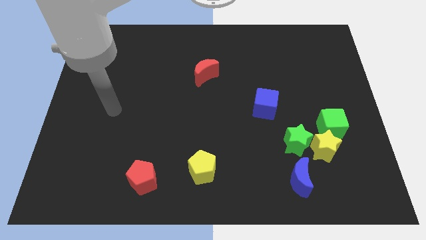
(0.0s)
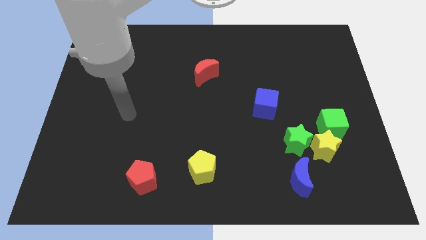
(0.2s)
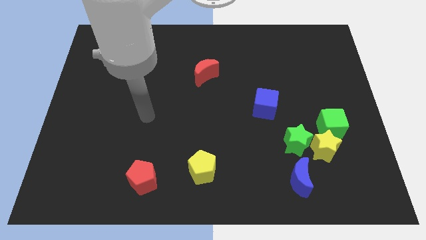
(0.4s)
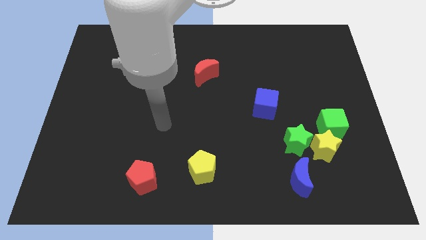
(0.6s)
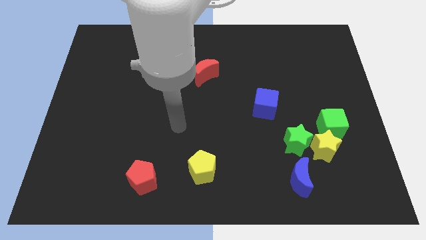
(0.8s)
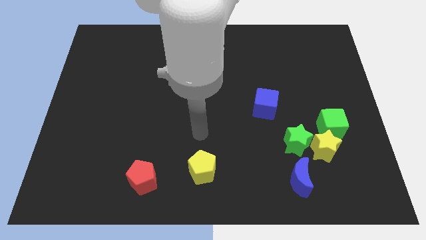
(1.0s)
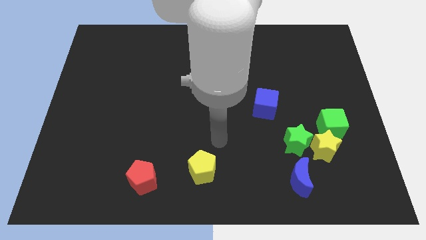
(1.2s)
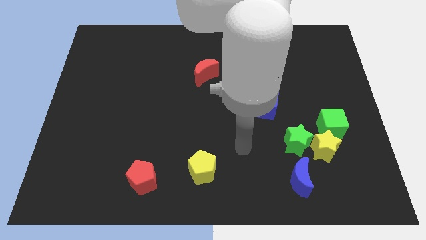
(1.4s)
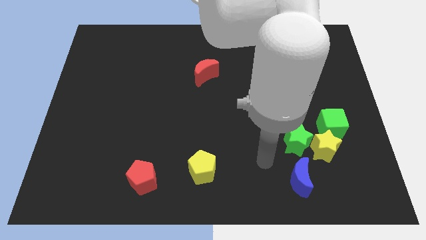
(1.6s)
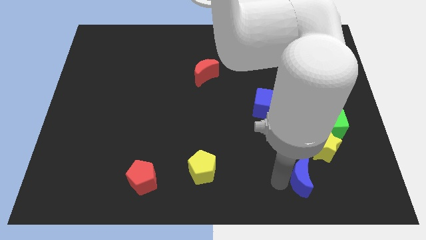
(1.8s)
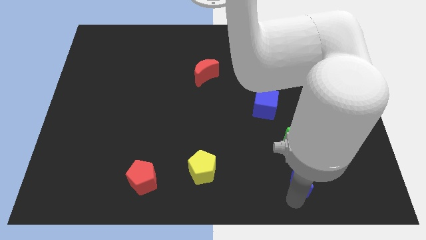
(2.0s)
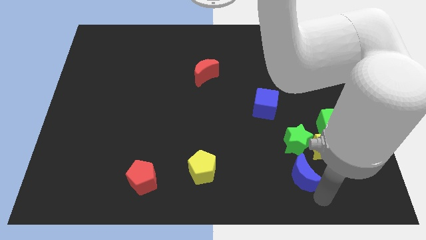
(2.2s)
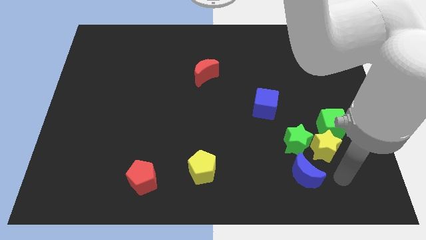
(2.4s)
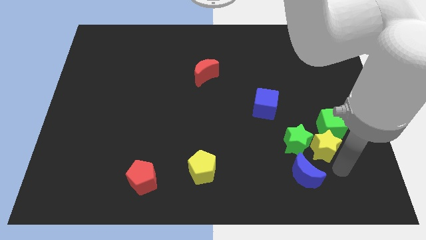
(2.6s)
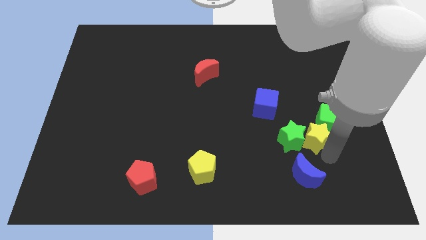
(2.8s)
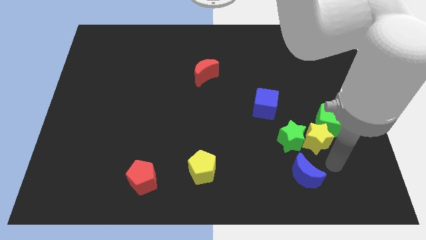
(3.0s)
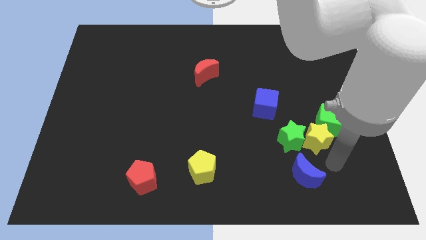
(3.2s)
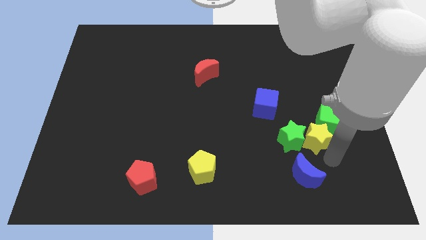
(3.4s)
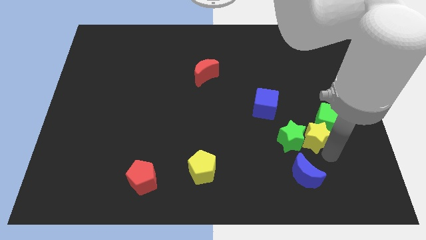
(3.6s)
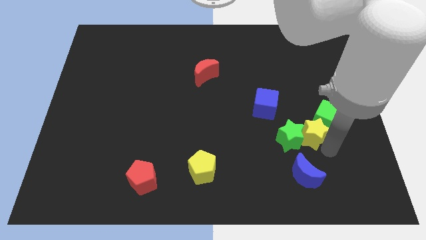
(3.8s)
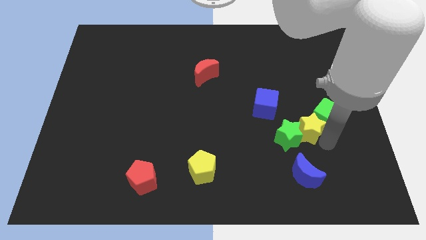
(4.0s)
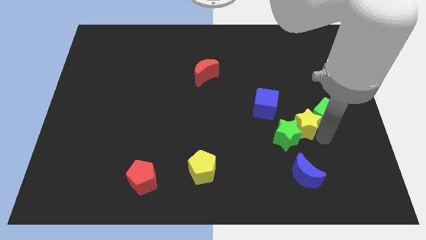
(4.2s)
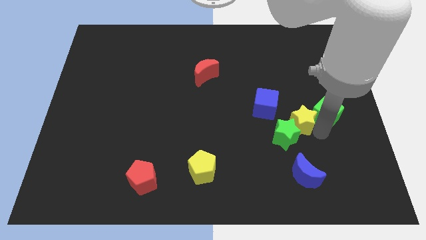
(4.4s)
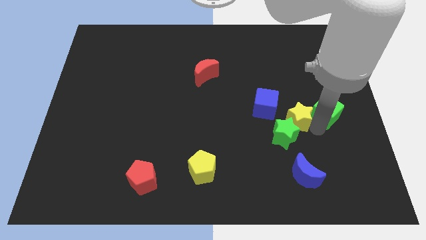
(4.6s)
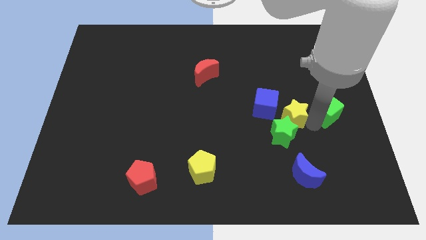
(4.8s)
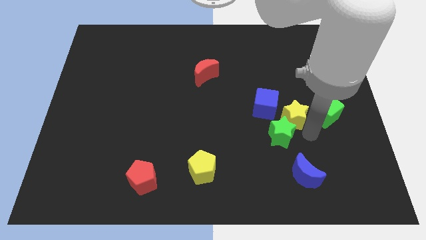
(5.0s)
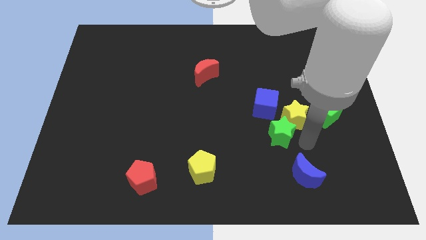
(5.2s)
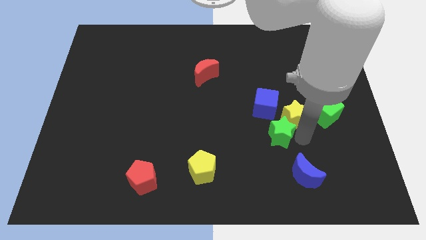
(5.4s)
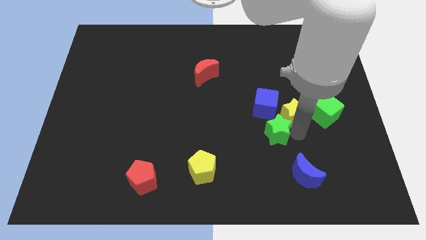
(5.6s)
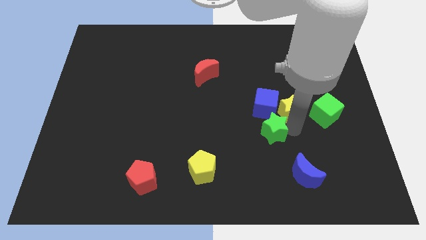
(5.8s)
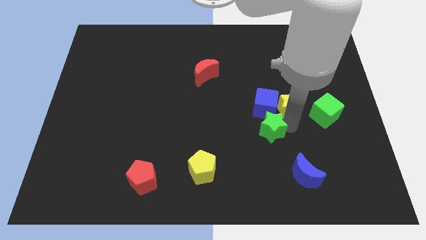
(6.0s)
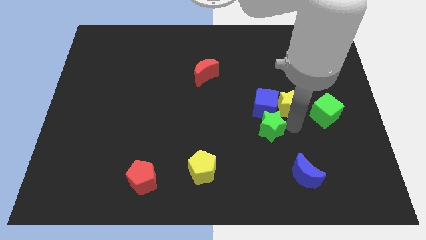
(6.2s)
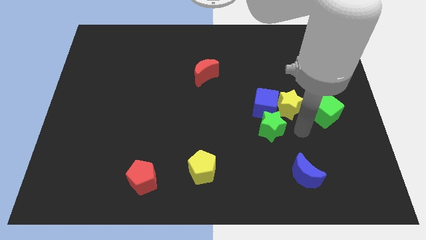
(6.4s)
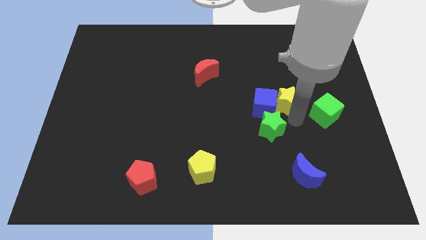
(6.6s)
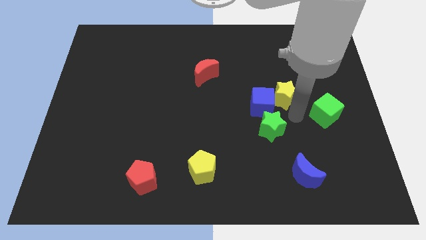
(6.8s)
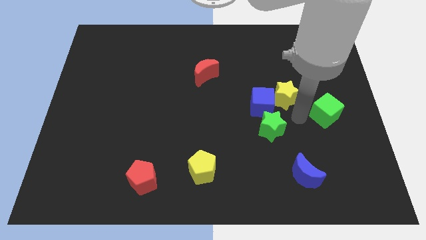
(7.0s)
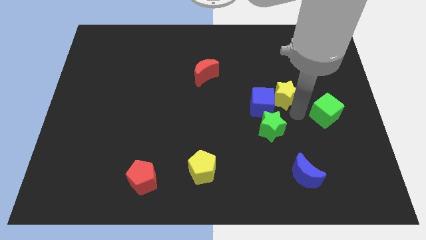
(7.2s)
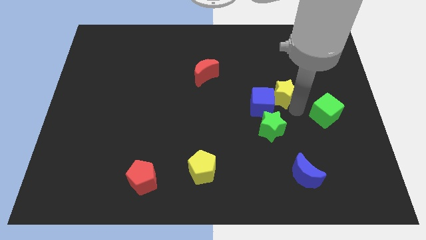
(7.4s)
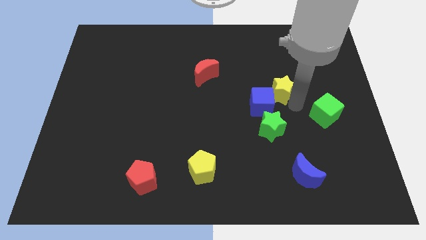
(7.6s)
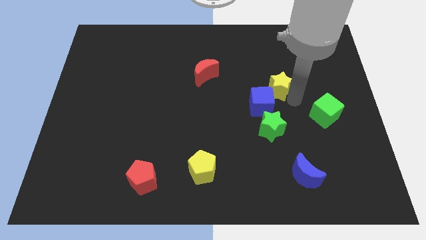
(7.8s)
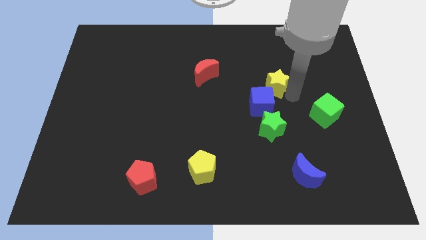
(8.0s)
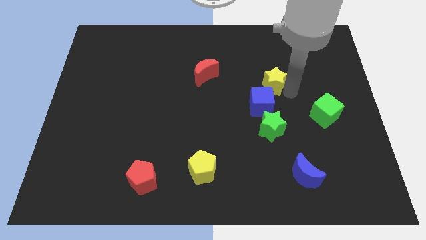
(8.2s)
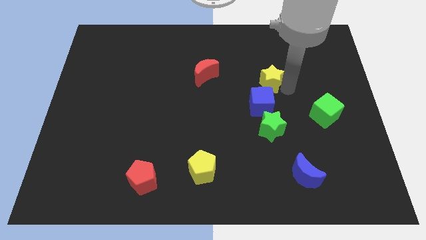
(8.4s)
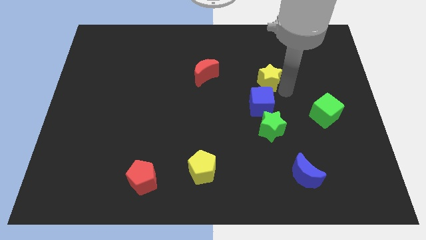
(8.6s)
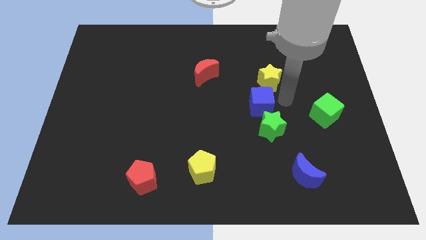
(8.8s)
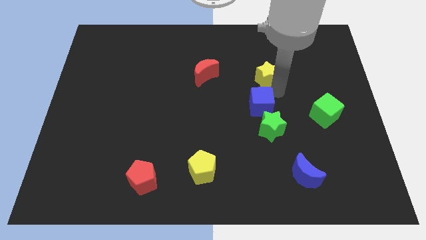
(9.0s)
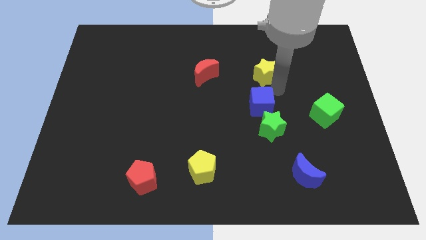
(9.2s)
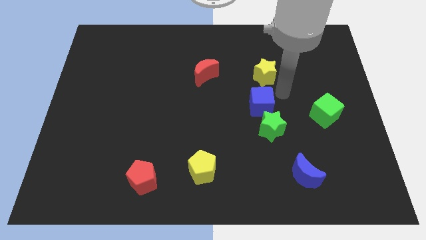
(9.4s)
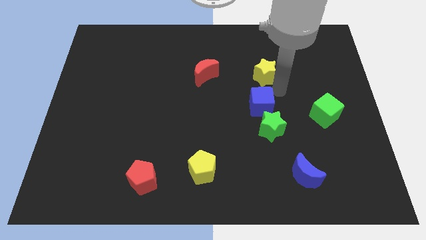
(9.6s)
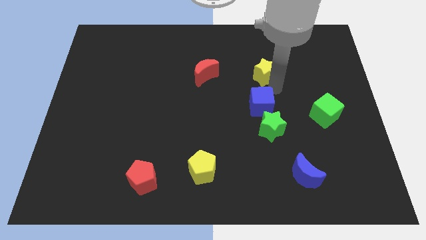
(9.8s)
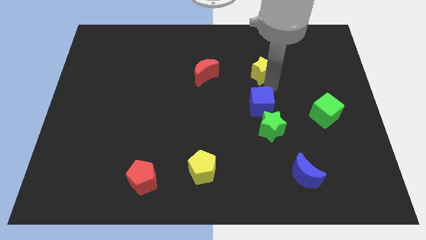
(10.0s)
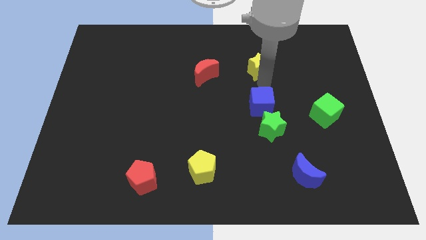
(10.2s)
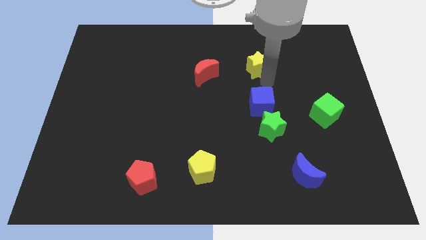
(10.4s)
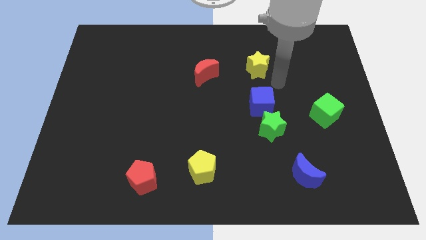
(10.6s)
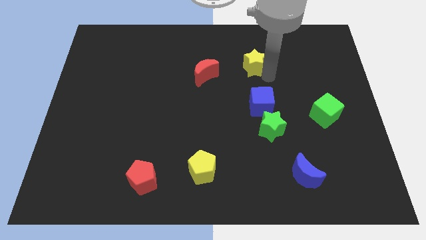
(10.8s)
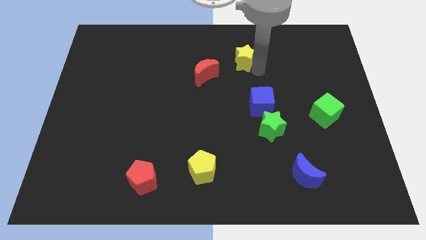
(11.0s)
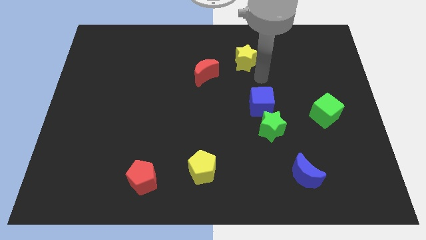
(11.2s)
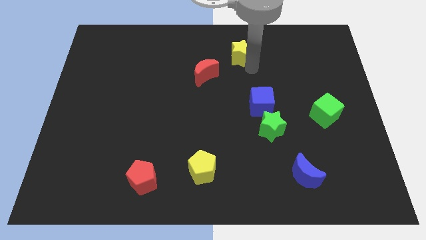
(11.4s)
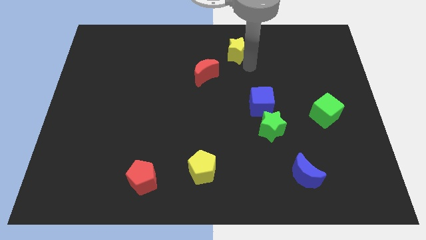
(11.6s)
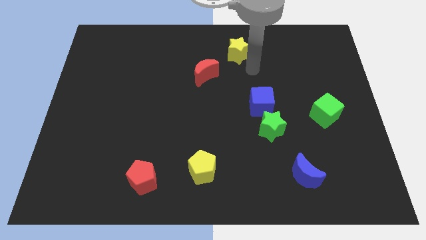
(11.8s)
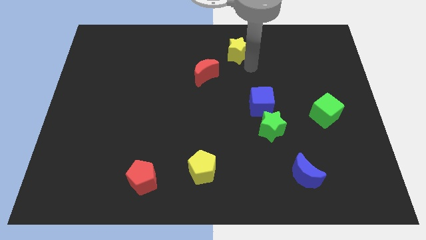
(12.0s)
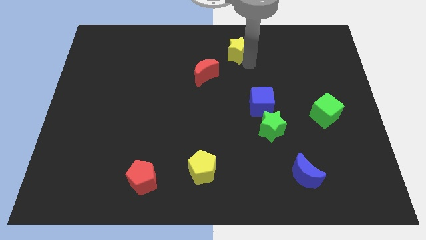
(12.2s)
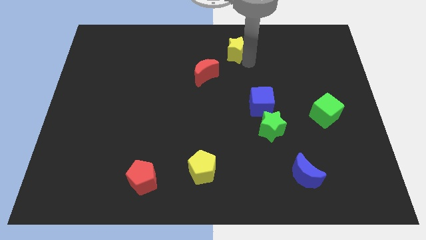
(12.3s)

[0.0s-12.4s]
slide the yellow star to the top side
